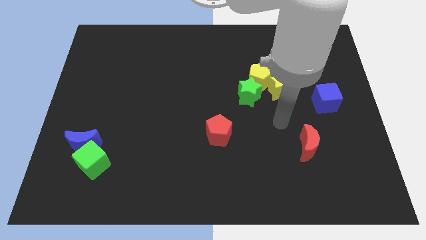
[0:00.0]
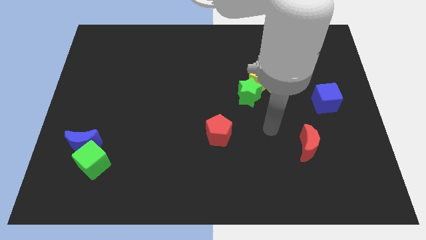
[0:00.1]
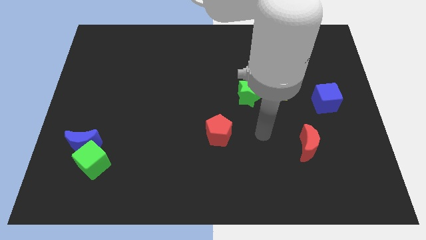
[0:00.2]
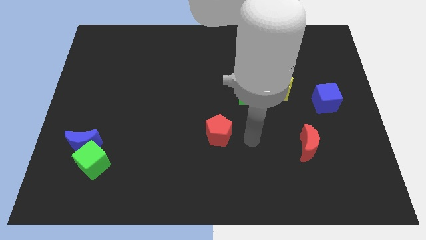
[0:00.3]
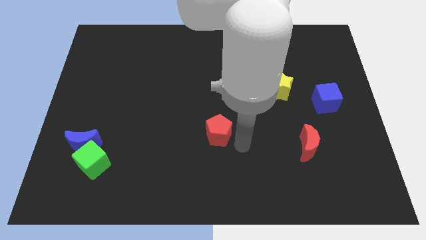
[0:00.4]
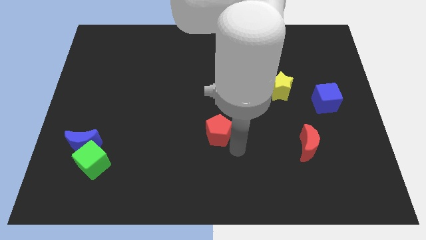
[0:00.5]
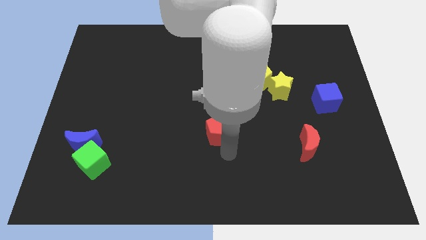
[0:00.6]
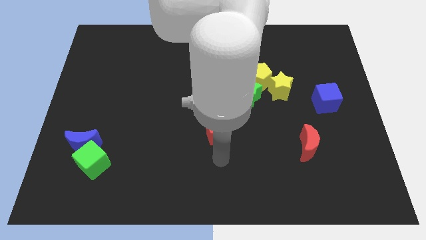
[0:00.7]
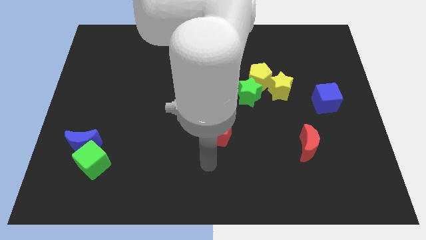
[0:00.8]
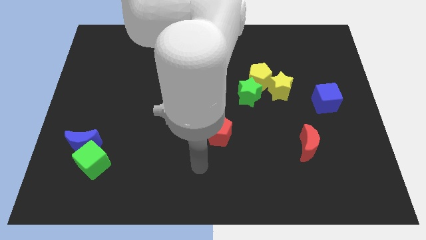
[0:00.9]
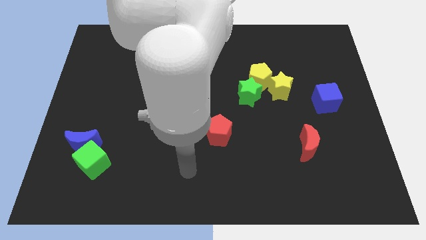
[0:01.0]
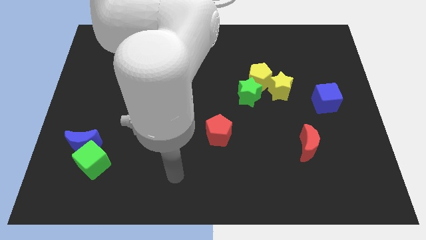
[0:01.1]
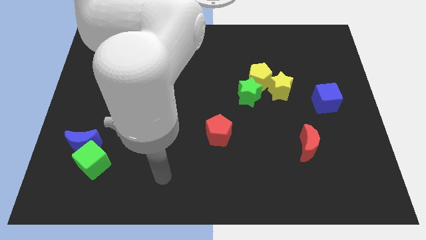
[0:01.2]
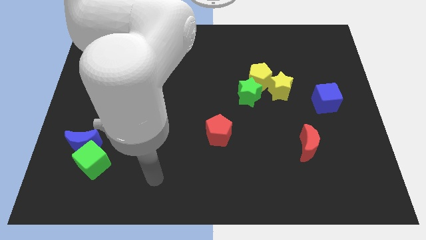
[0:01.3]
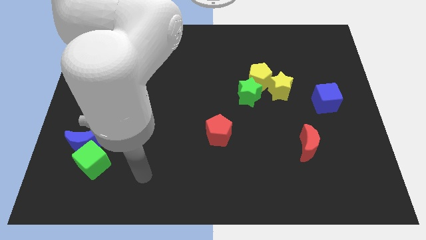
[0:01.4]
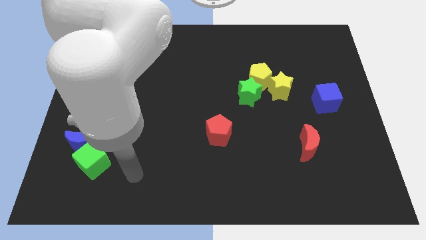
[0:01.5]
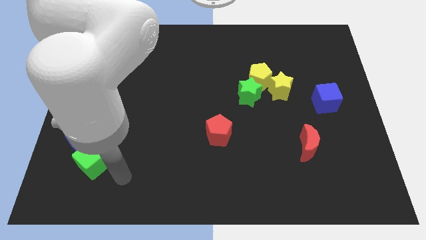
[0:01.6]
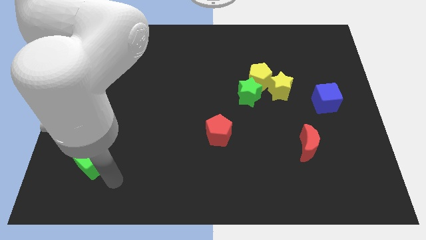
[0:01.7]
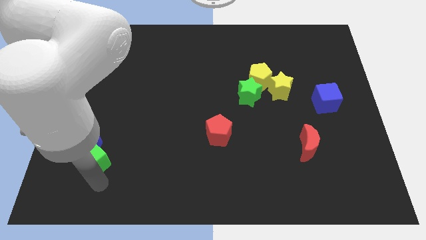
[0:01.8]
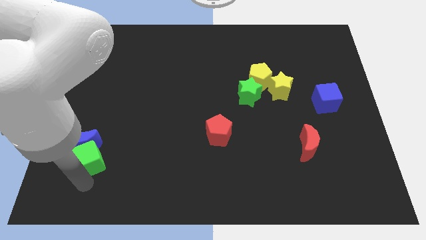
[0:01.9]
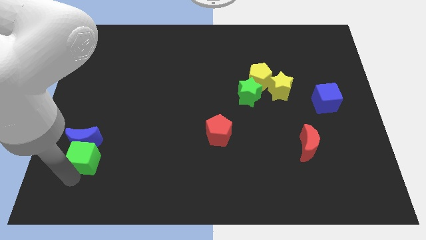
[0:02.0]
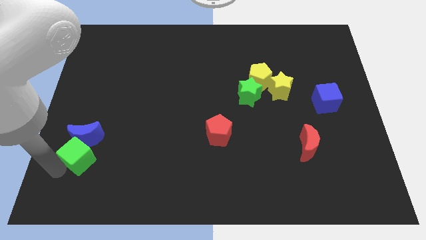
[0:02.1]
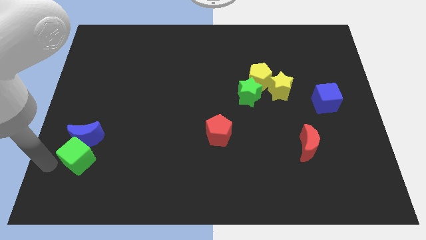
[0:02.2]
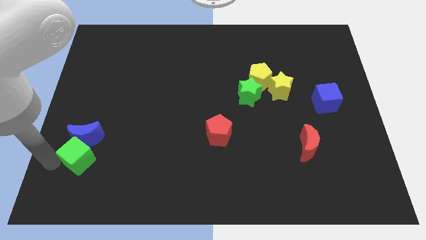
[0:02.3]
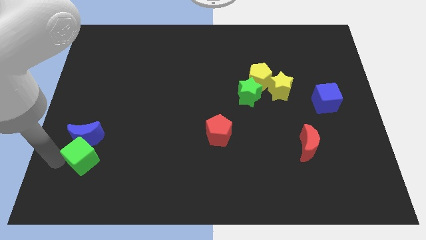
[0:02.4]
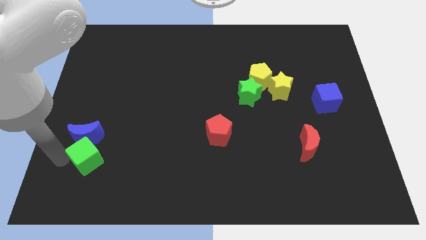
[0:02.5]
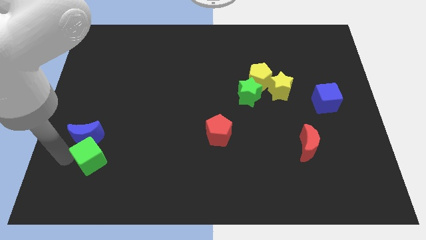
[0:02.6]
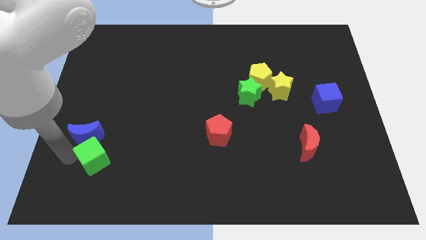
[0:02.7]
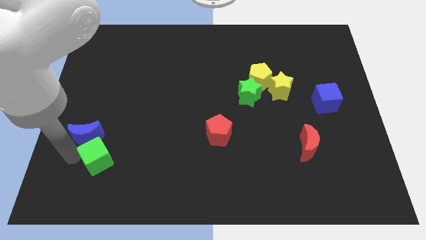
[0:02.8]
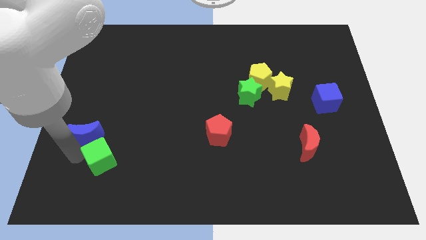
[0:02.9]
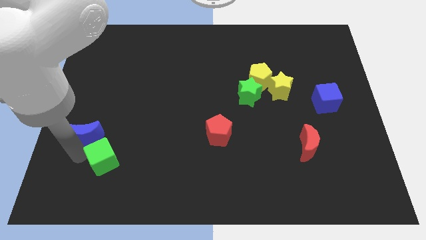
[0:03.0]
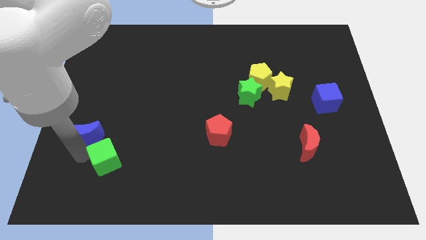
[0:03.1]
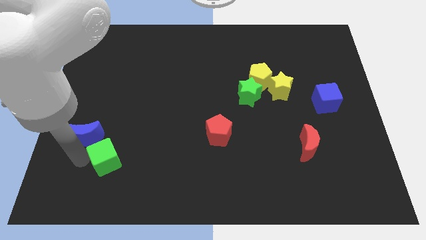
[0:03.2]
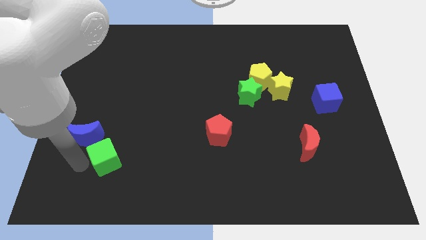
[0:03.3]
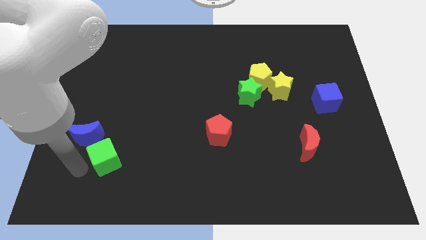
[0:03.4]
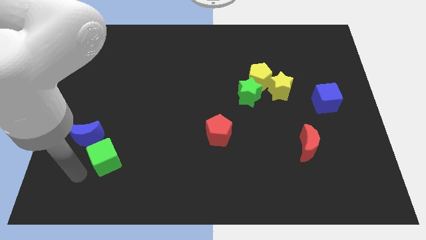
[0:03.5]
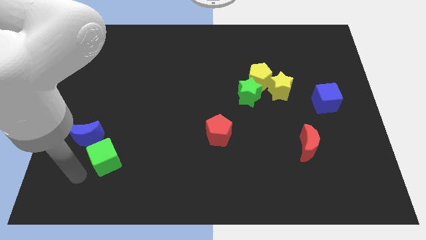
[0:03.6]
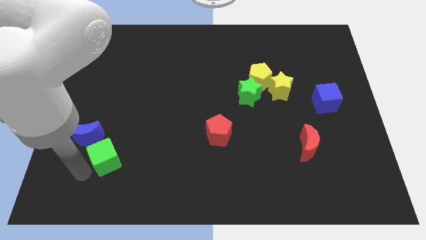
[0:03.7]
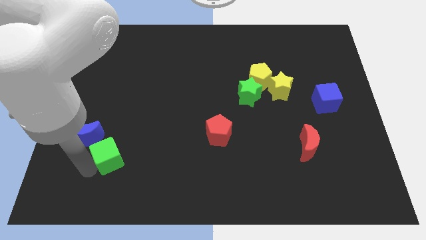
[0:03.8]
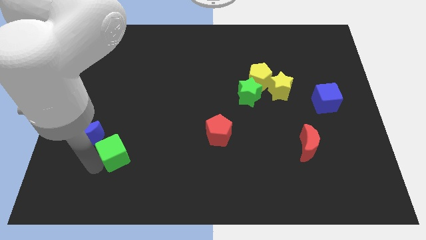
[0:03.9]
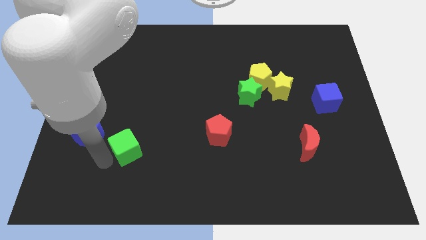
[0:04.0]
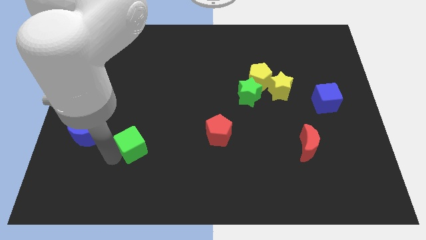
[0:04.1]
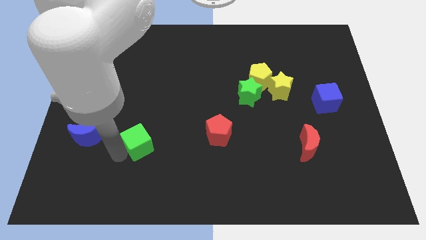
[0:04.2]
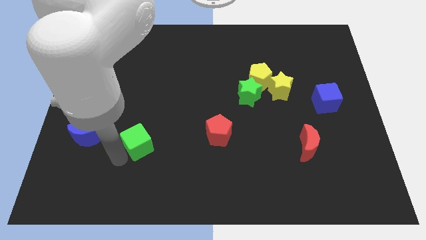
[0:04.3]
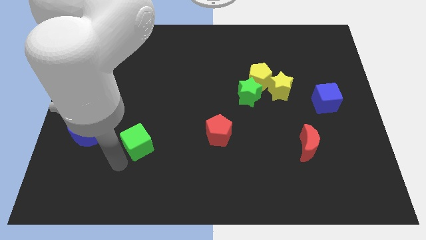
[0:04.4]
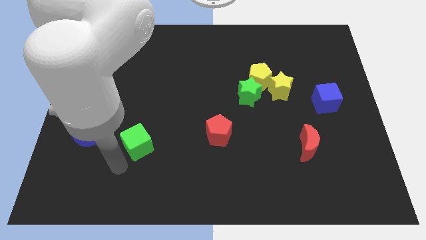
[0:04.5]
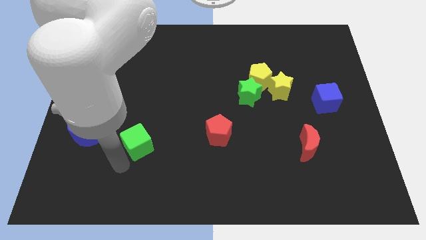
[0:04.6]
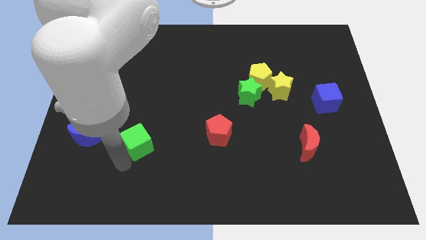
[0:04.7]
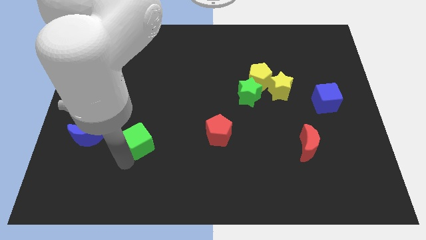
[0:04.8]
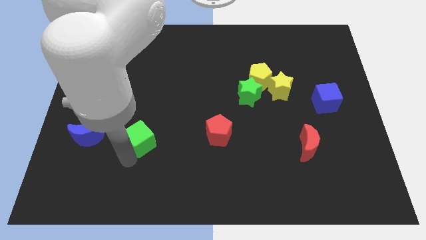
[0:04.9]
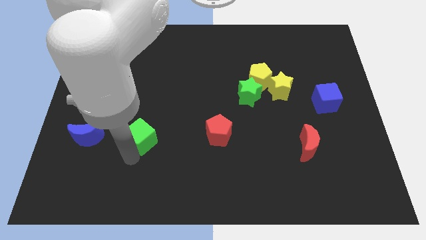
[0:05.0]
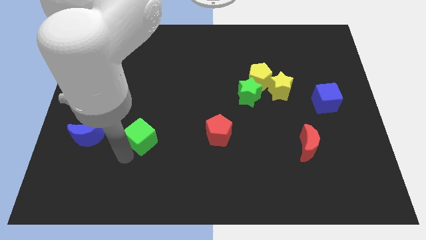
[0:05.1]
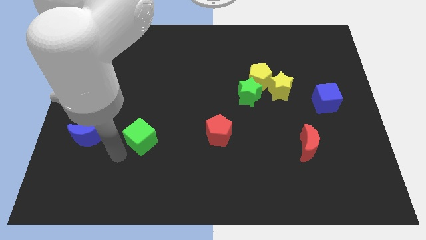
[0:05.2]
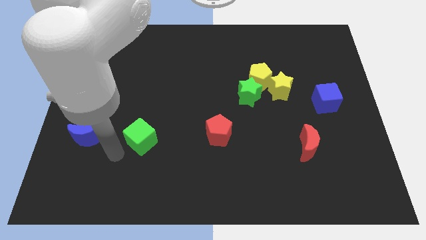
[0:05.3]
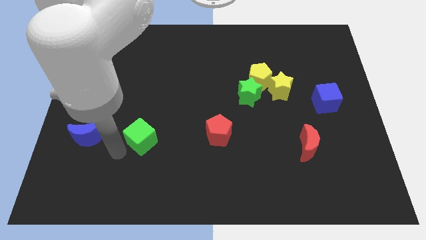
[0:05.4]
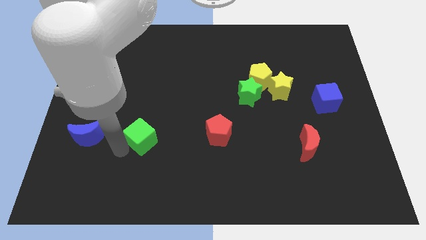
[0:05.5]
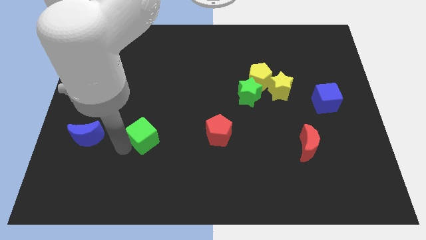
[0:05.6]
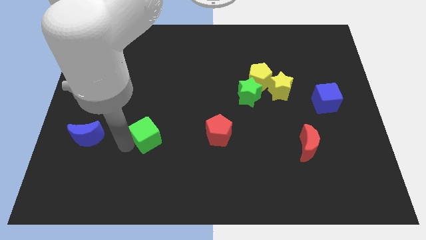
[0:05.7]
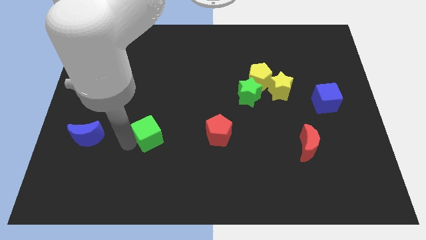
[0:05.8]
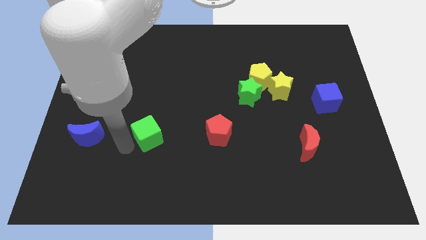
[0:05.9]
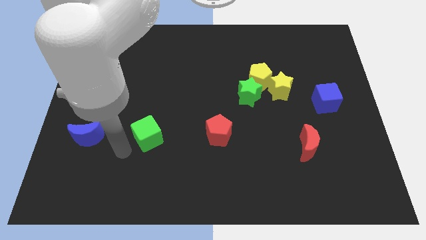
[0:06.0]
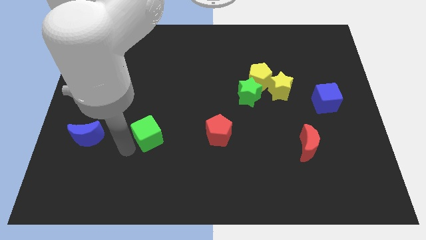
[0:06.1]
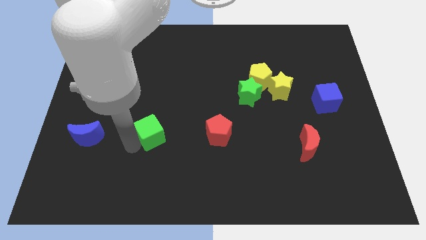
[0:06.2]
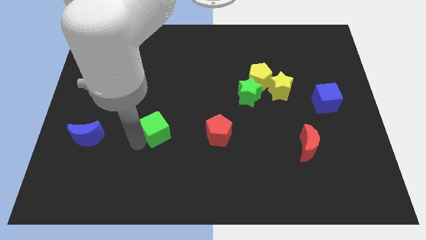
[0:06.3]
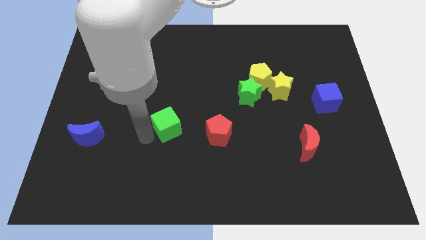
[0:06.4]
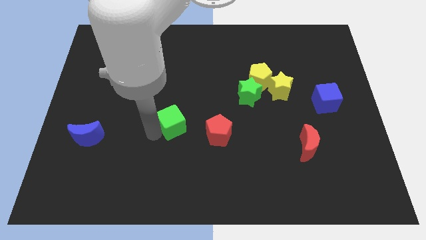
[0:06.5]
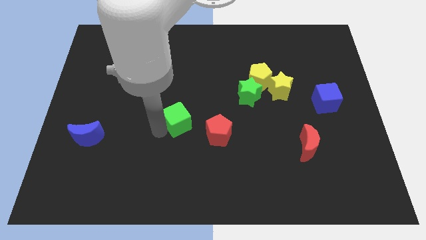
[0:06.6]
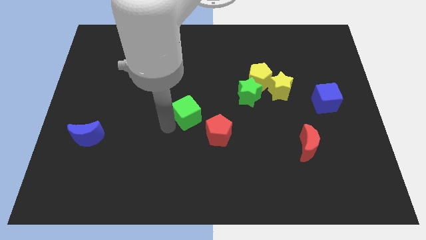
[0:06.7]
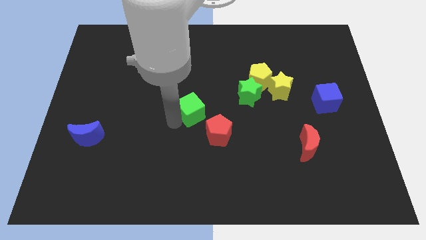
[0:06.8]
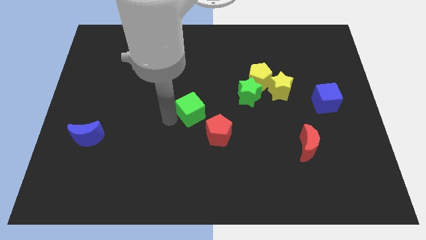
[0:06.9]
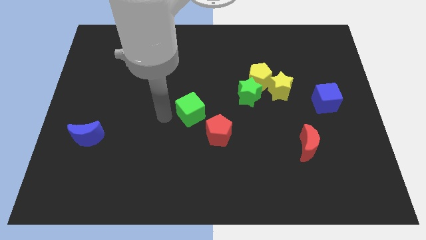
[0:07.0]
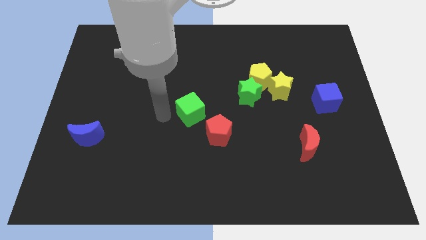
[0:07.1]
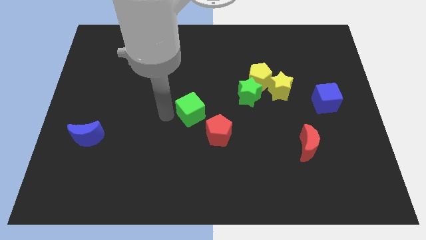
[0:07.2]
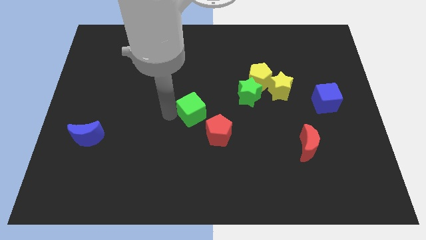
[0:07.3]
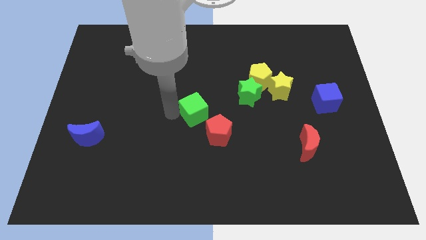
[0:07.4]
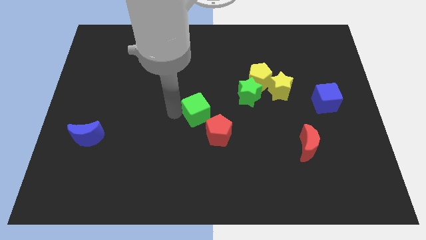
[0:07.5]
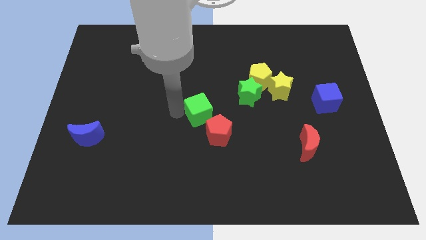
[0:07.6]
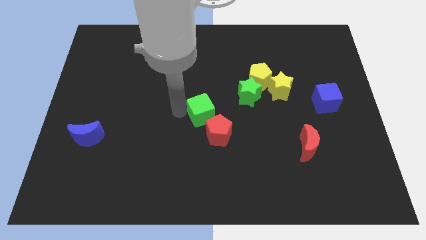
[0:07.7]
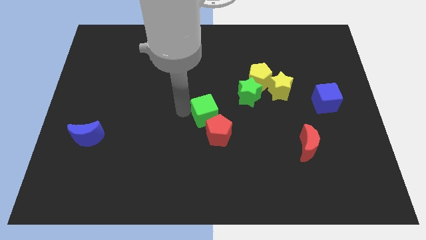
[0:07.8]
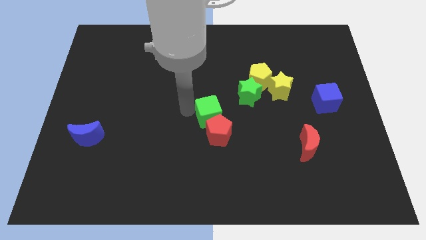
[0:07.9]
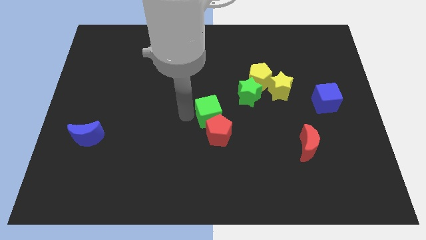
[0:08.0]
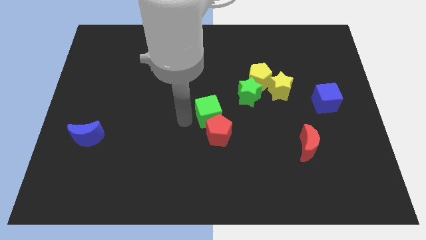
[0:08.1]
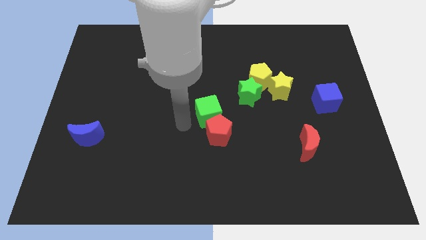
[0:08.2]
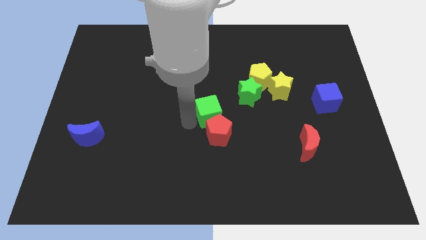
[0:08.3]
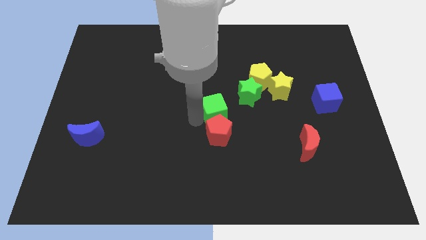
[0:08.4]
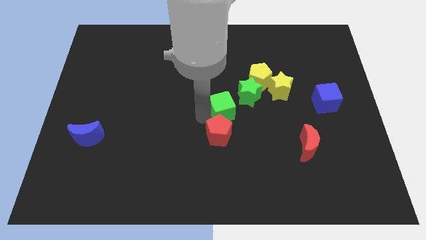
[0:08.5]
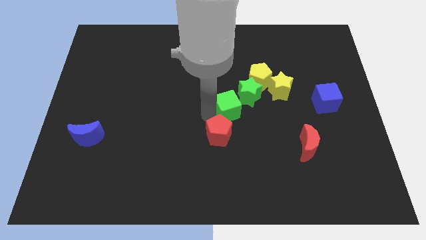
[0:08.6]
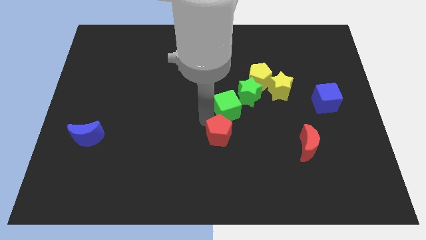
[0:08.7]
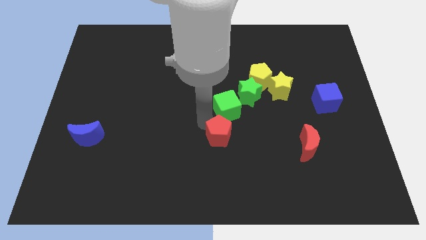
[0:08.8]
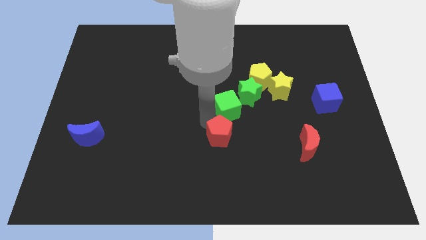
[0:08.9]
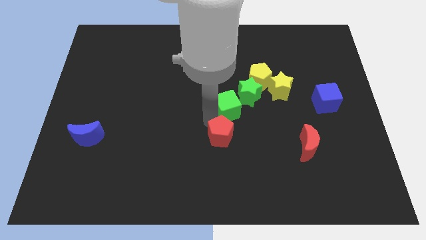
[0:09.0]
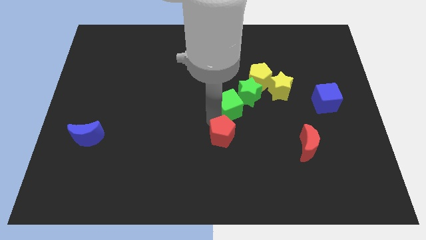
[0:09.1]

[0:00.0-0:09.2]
put the green cube towards the green star
